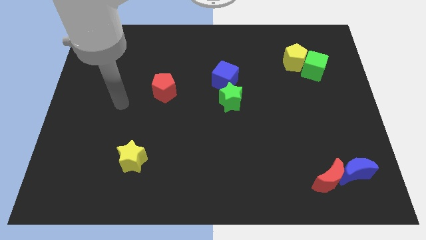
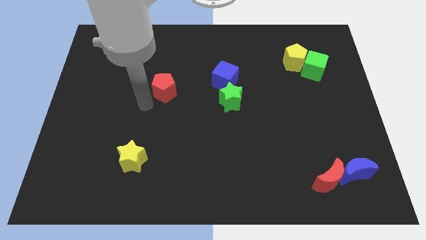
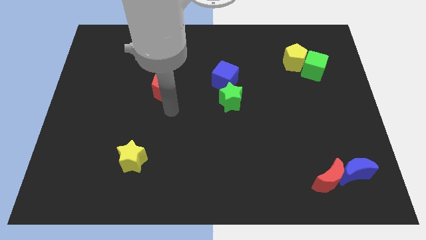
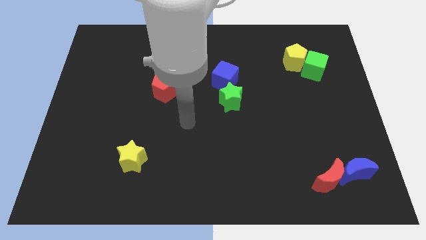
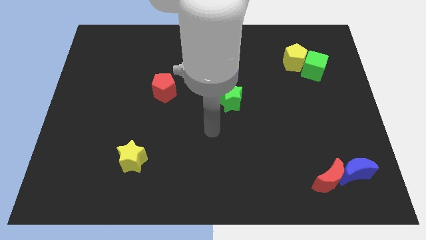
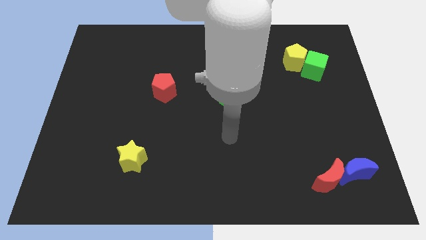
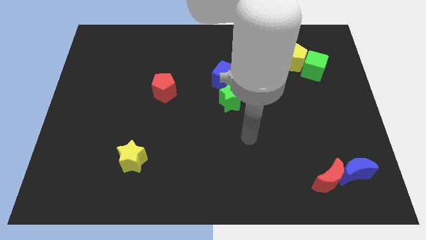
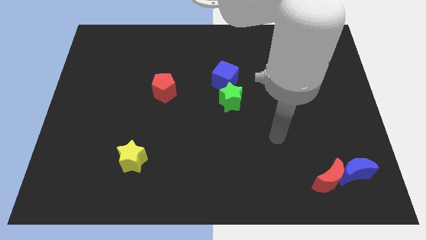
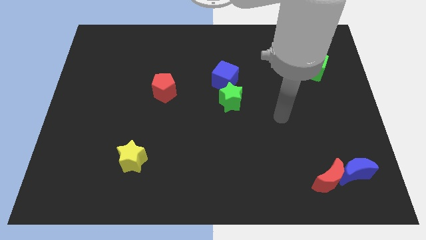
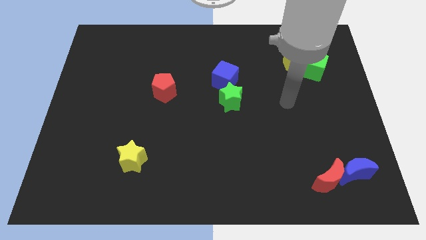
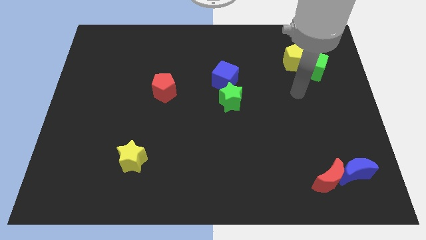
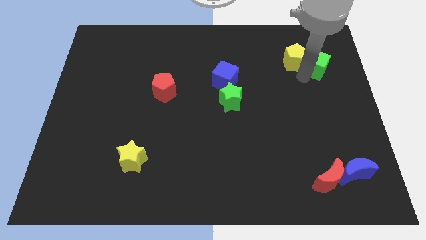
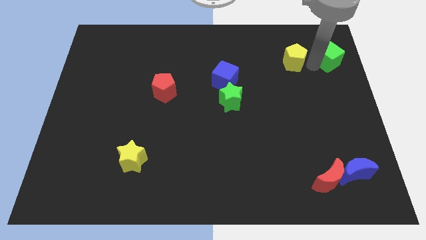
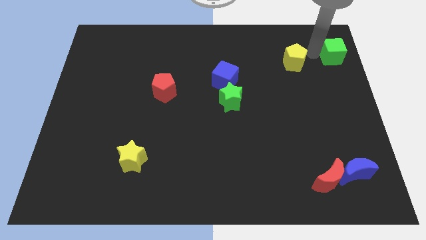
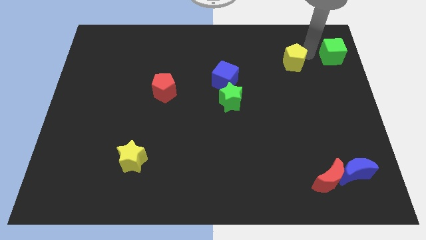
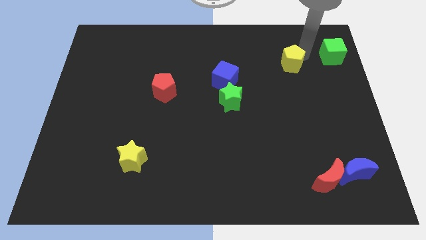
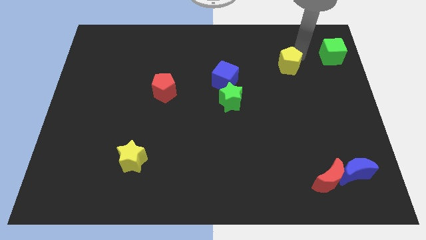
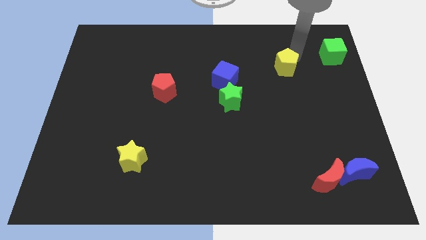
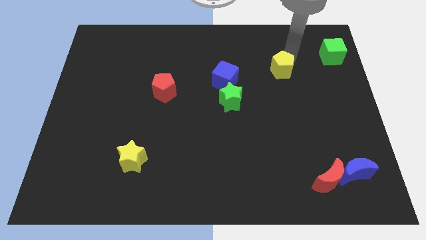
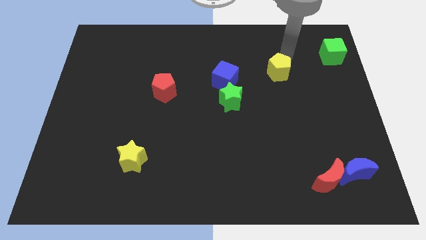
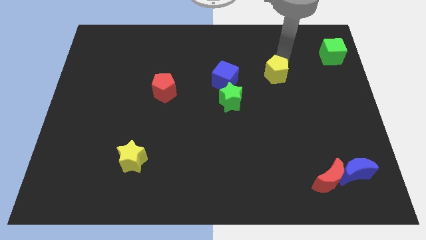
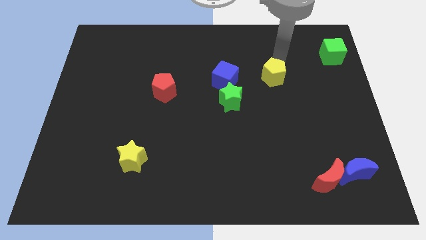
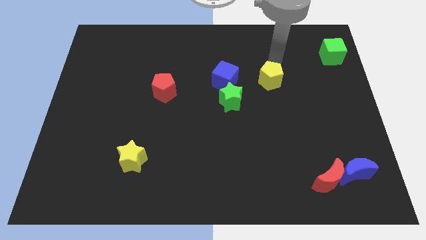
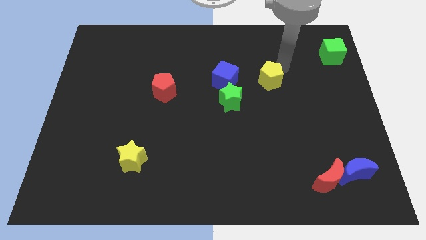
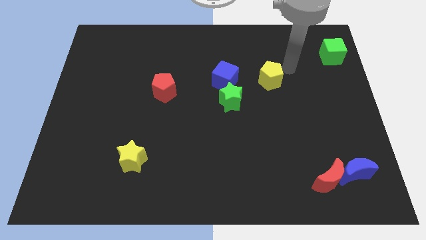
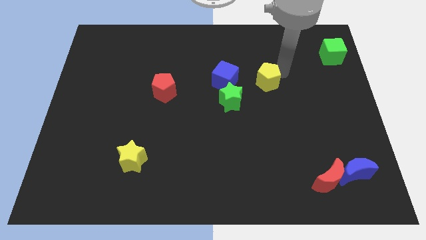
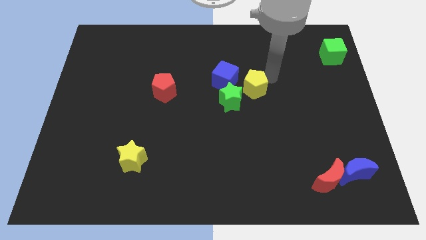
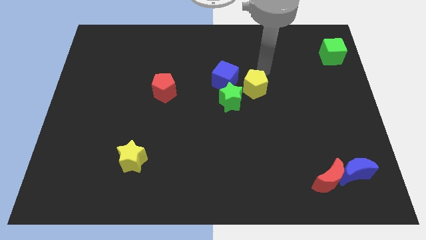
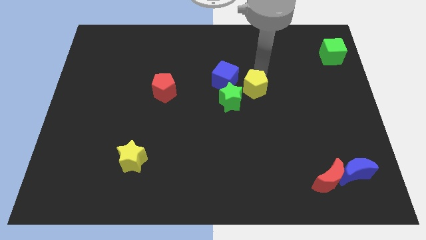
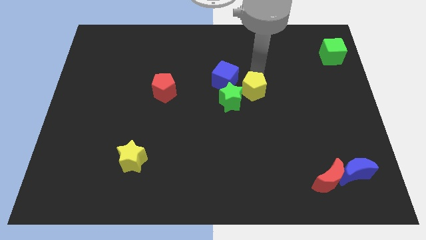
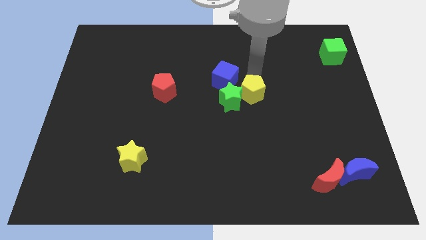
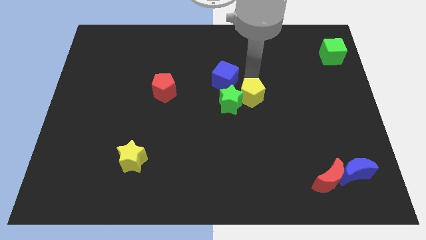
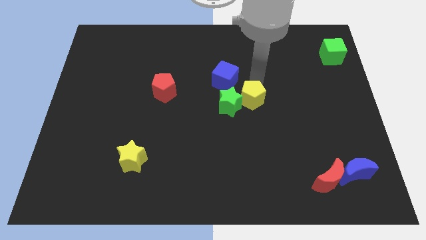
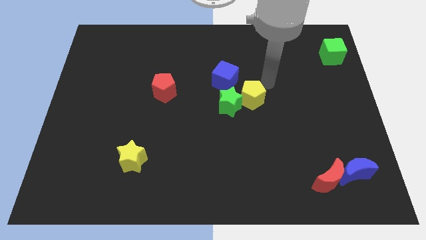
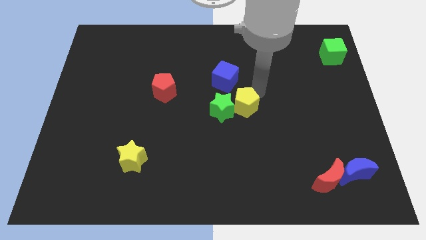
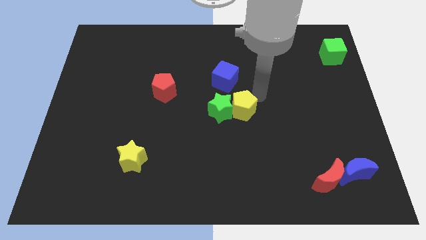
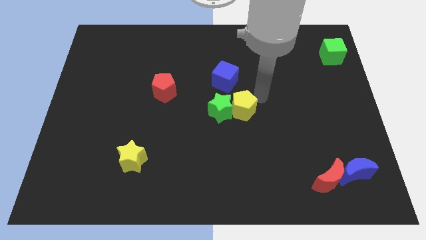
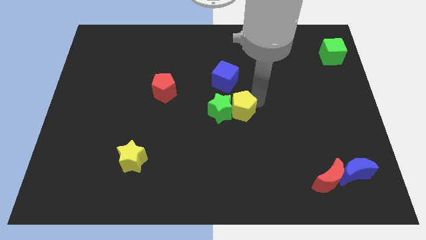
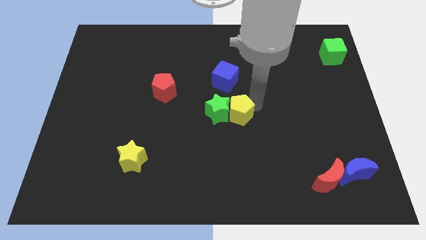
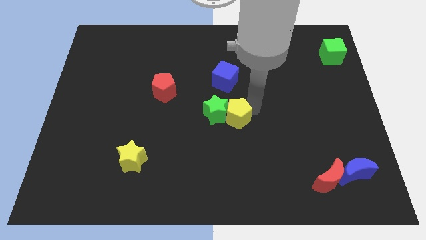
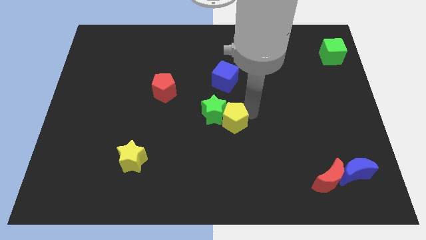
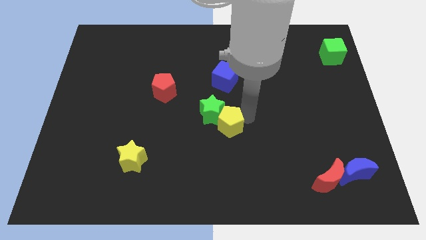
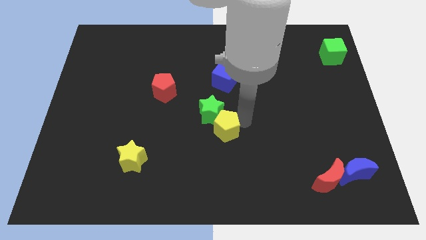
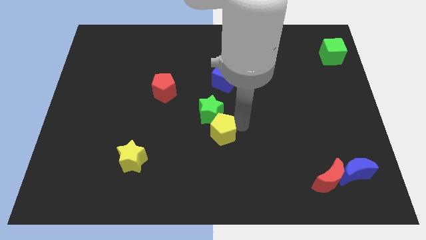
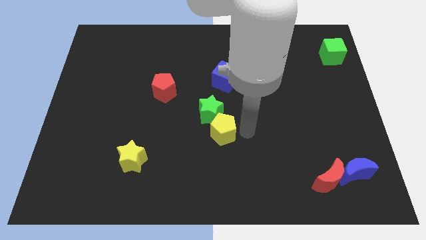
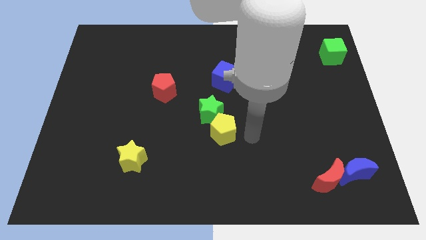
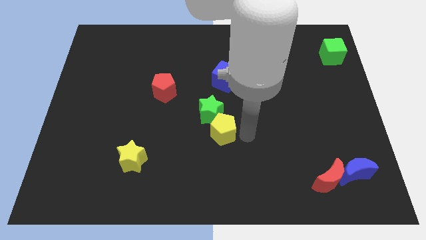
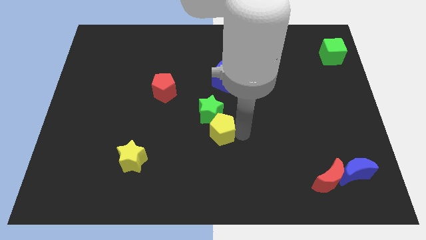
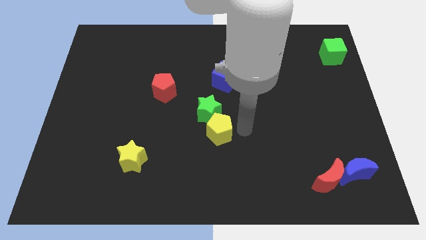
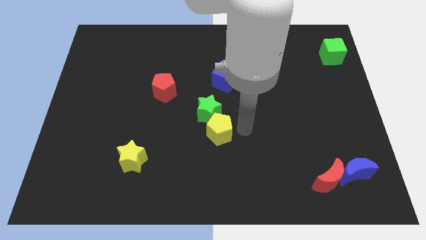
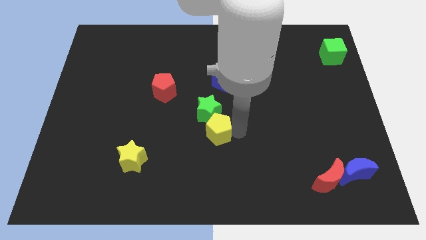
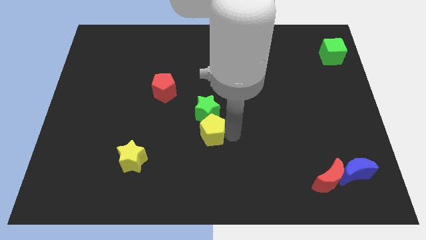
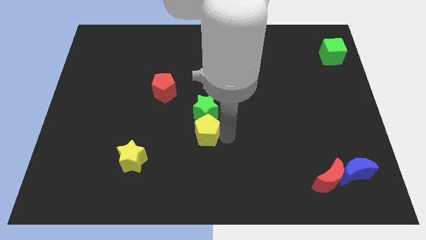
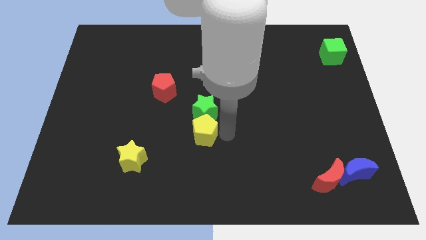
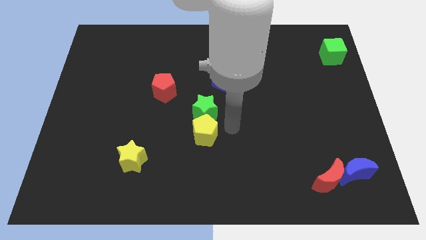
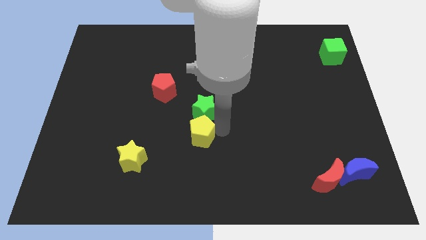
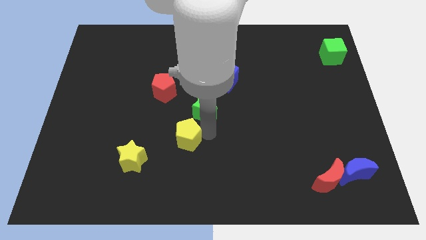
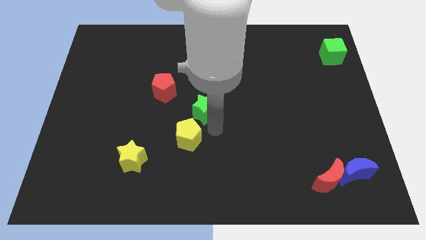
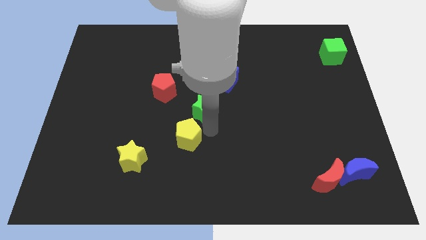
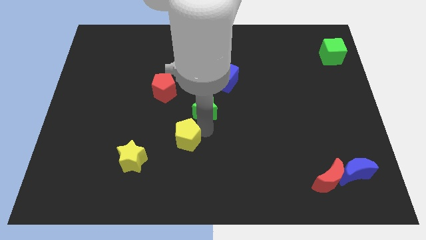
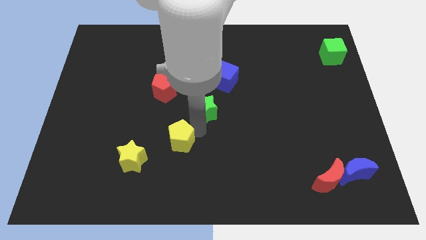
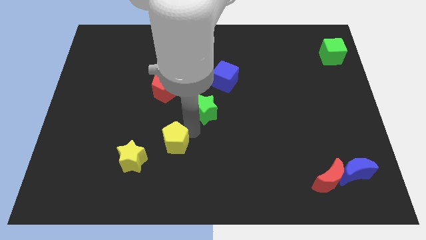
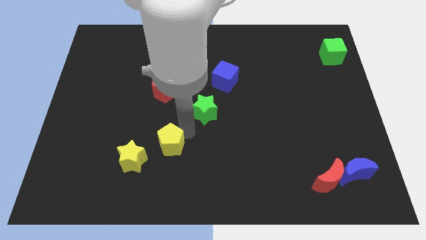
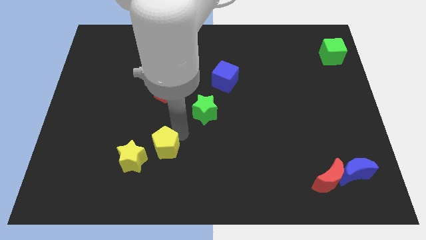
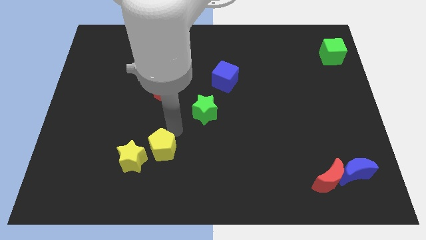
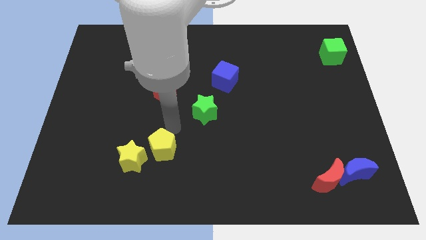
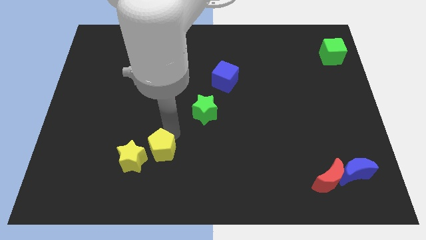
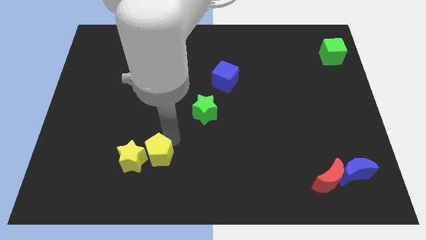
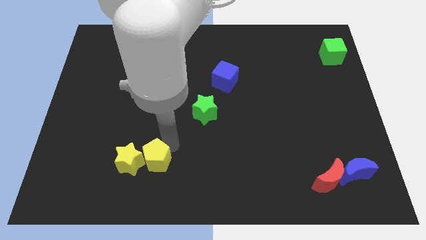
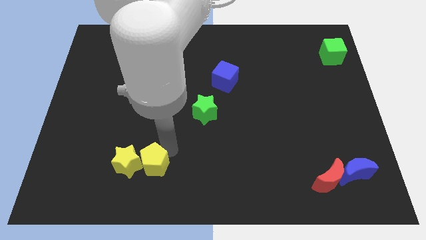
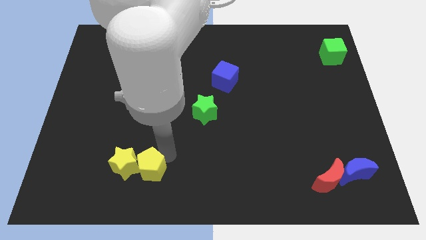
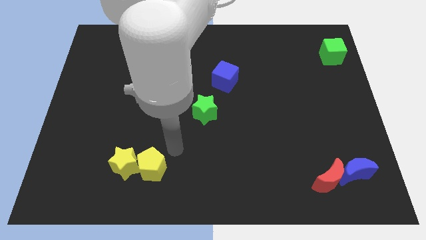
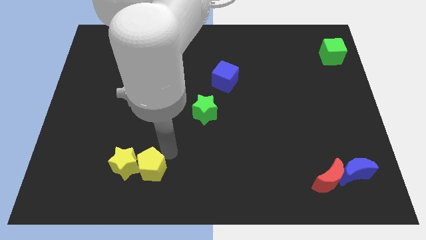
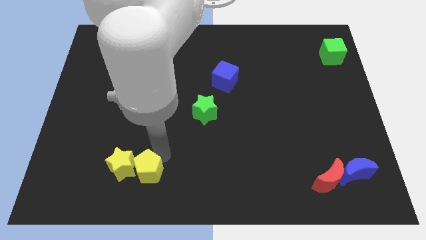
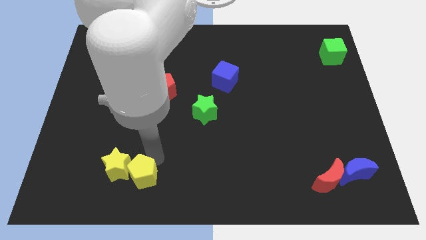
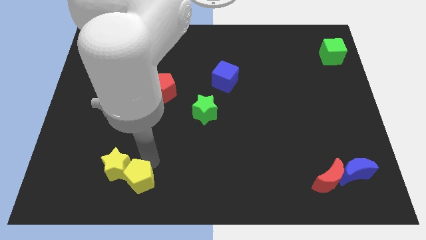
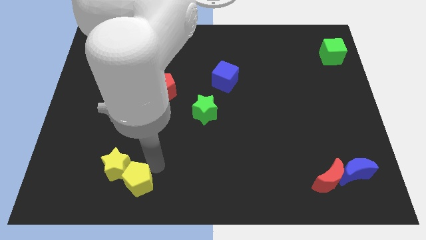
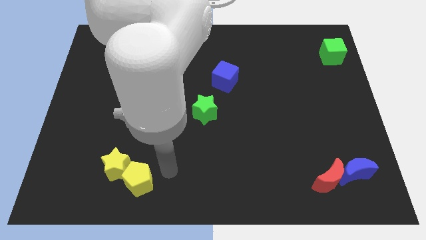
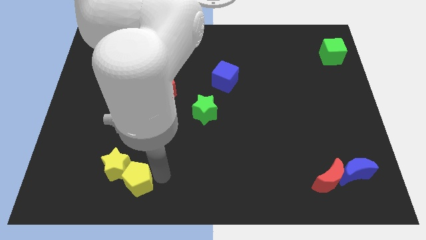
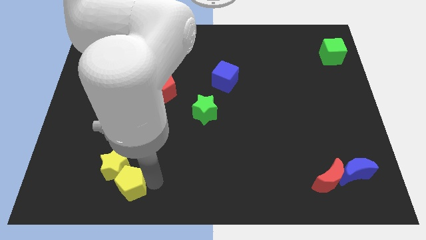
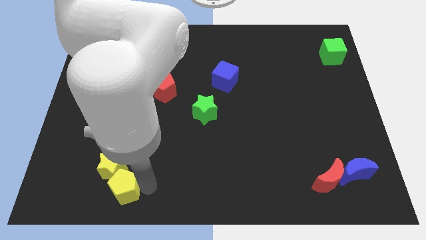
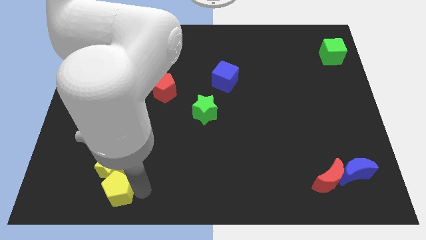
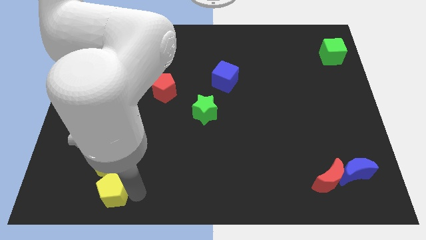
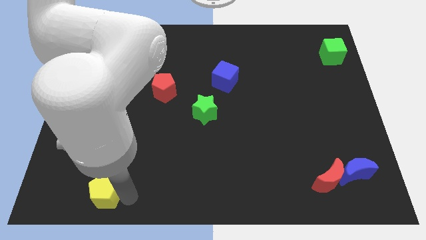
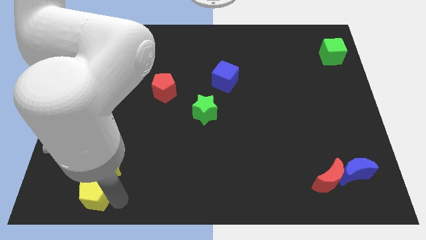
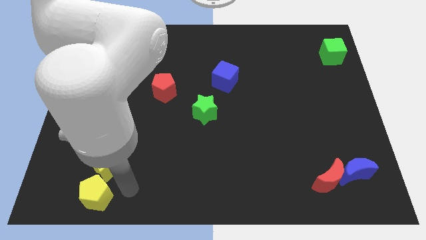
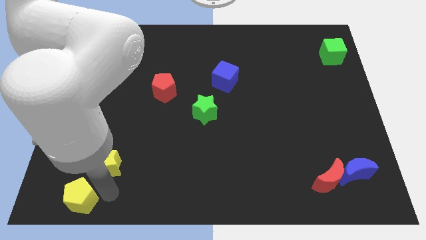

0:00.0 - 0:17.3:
slide the yellow pentagon to the bottom left of the board
